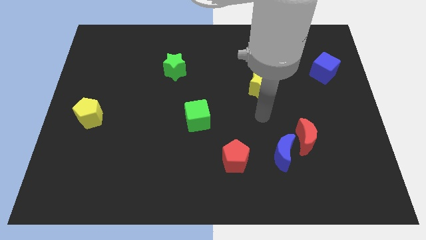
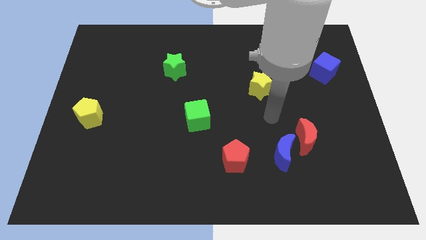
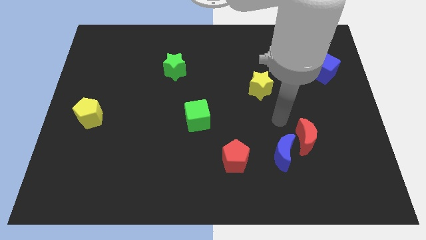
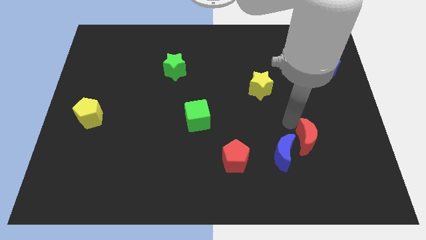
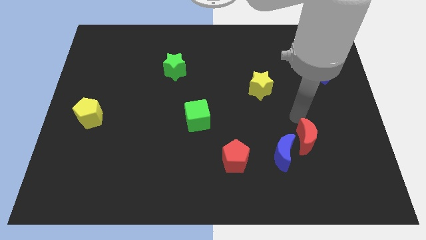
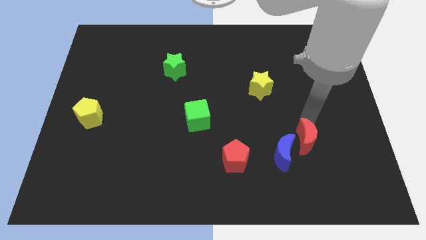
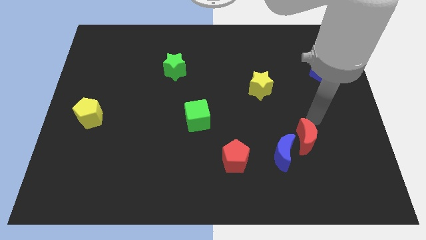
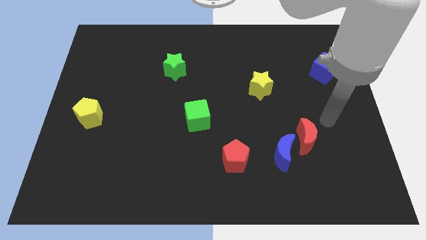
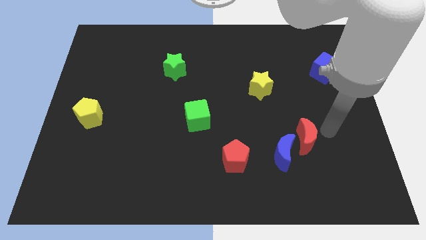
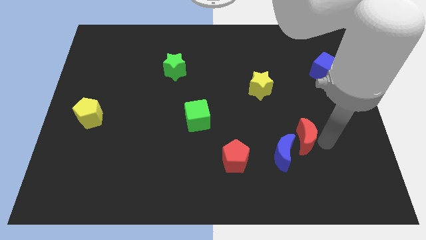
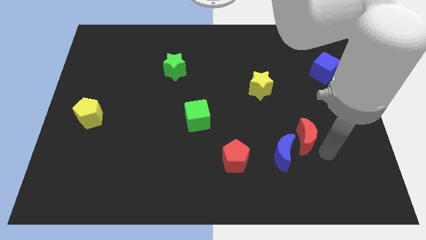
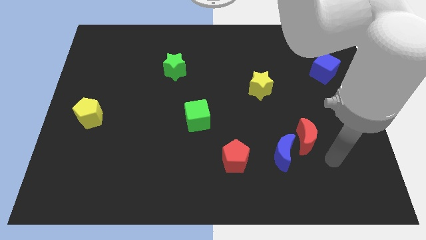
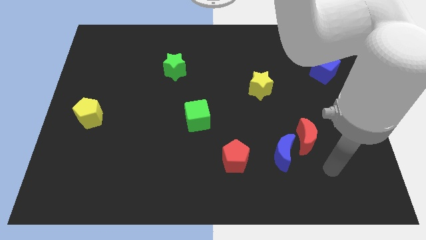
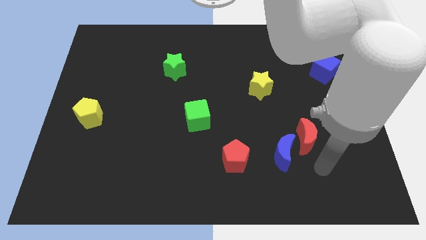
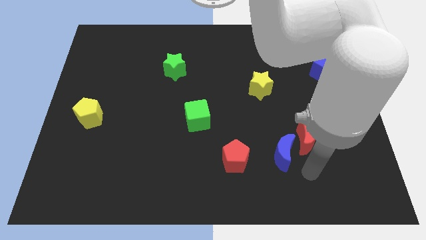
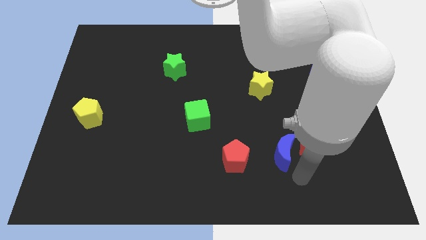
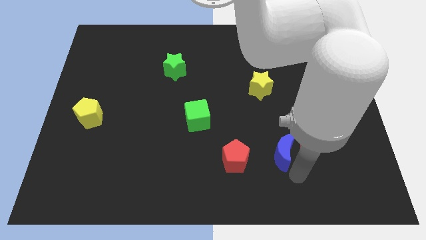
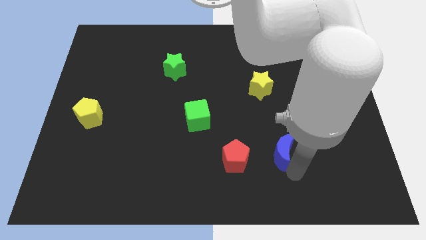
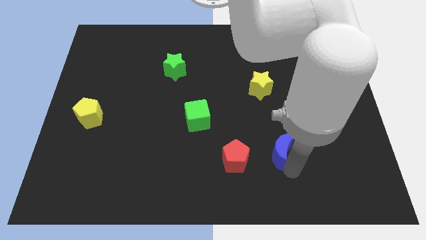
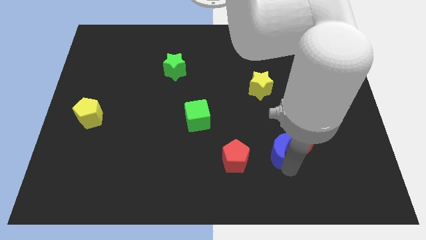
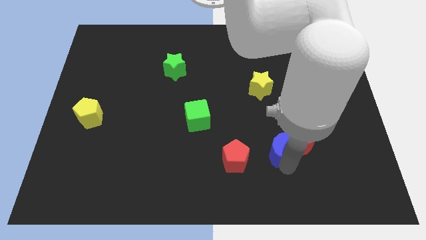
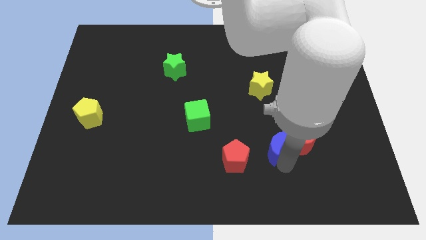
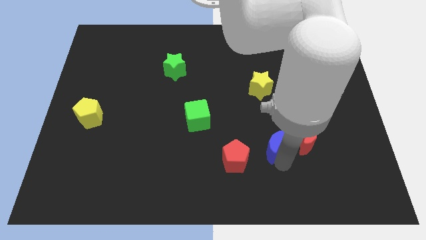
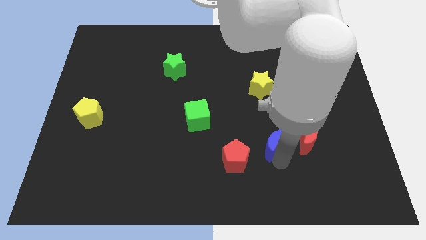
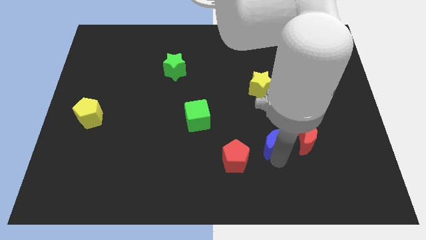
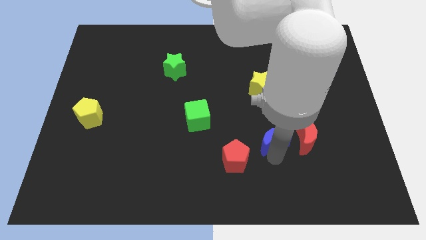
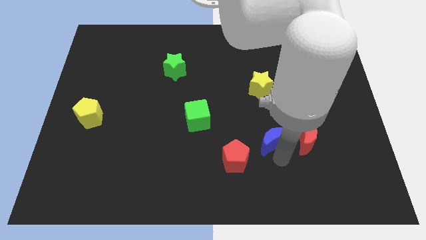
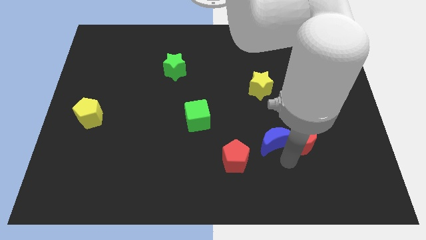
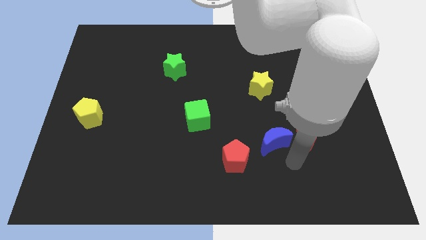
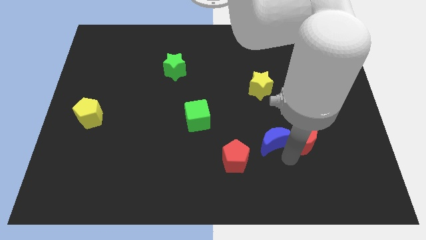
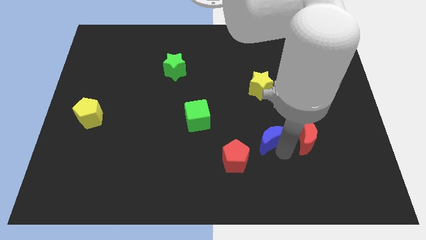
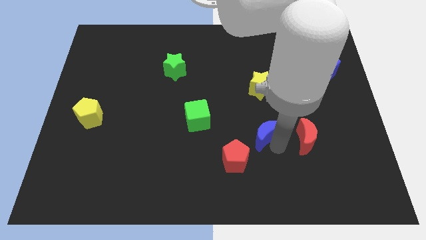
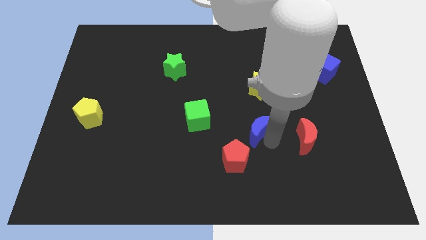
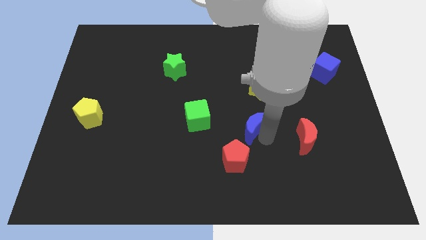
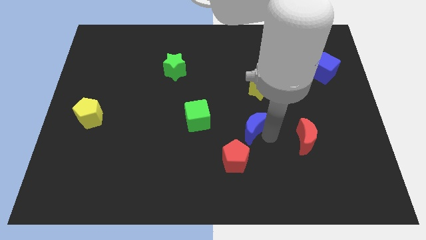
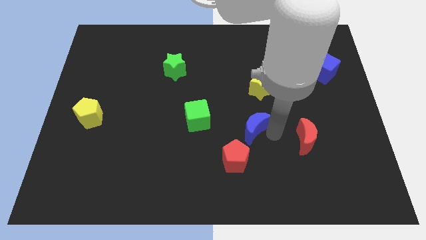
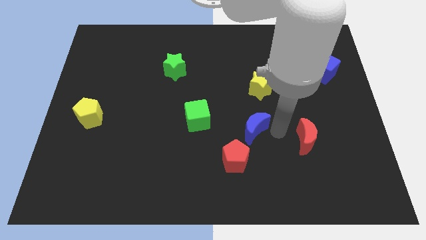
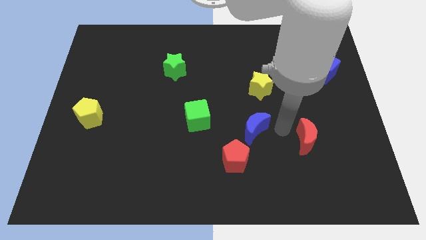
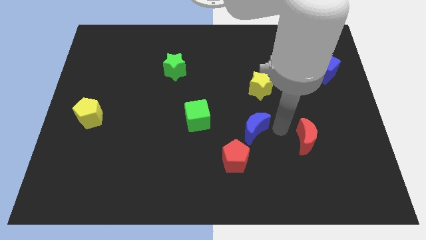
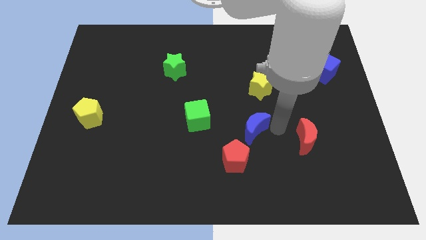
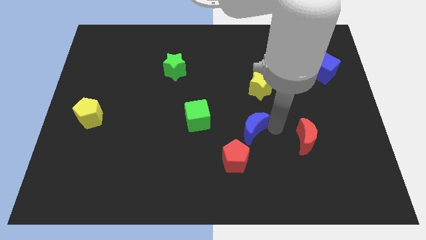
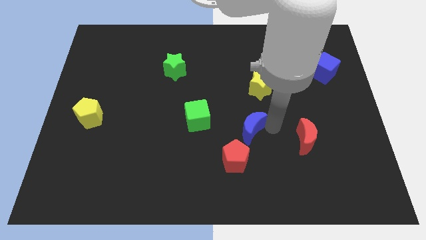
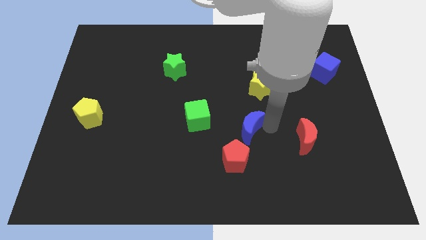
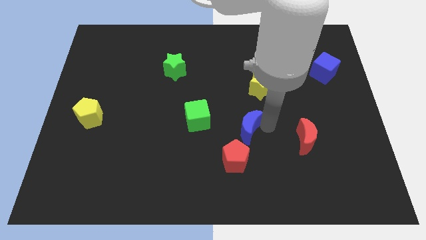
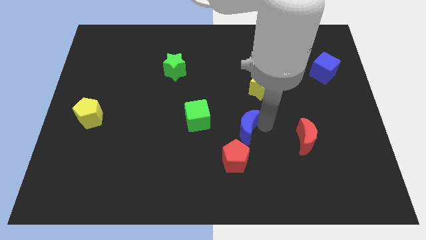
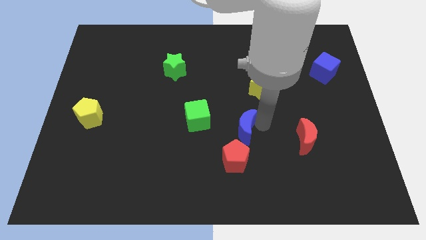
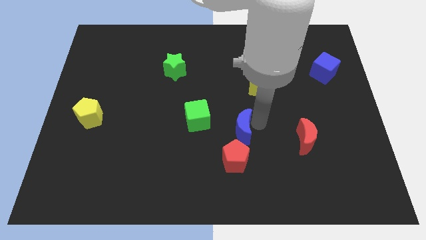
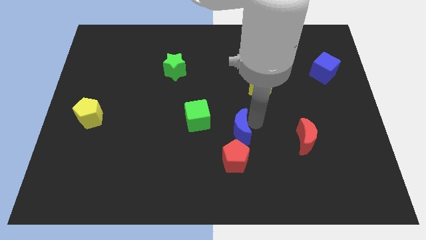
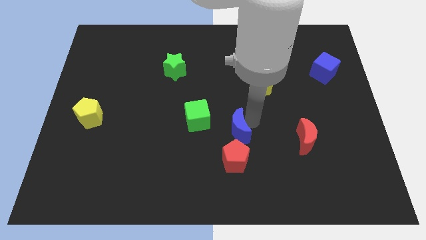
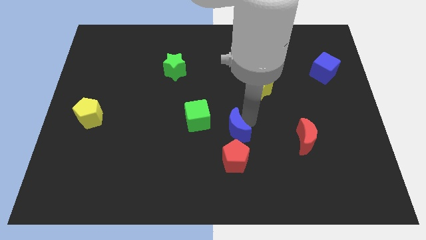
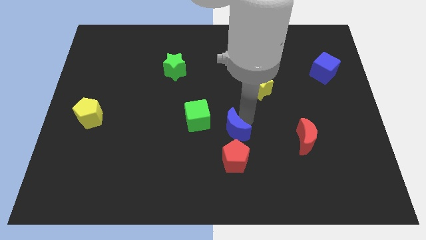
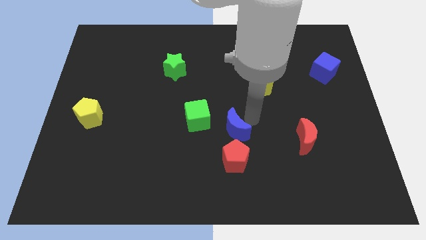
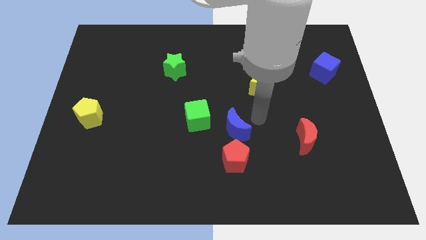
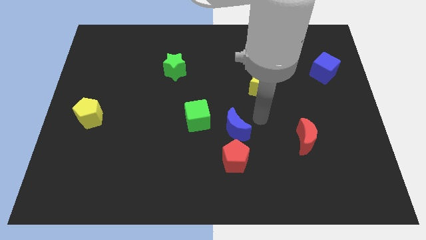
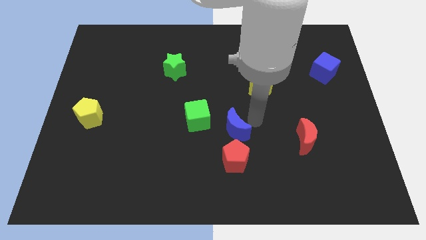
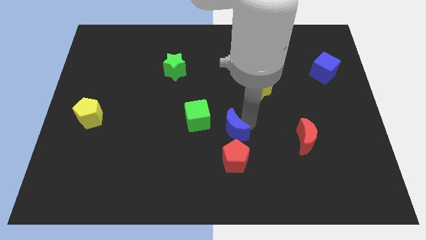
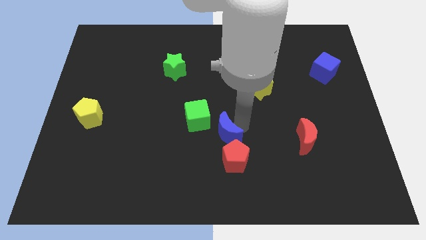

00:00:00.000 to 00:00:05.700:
push the blue moon to the top left side of the red pentagon

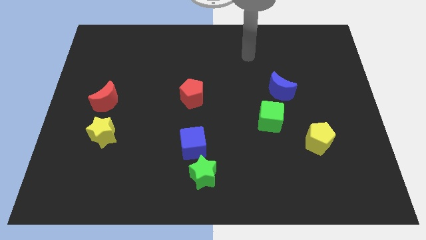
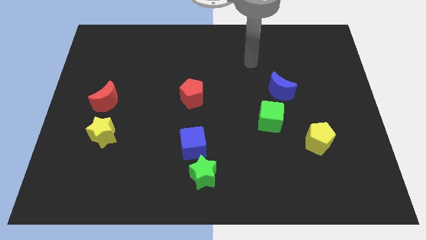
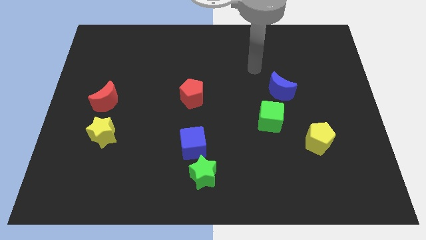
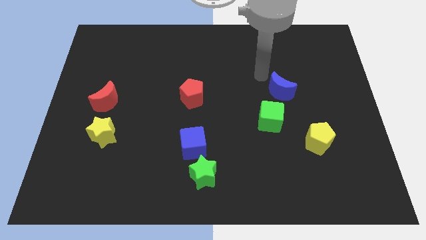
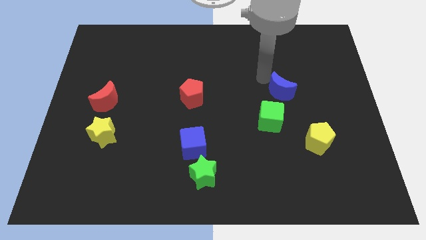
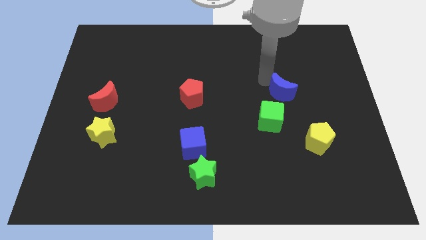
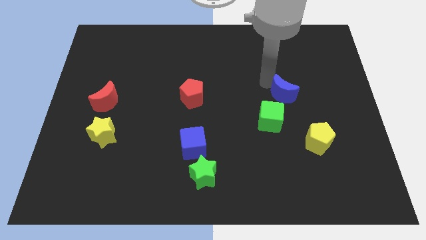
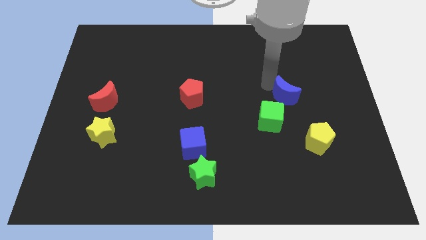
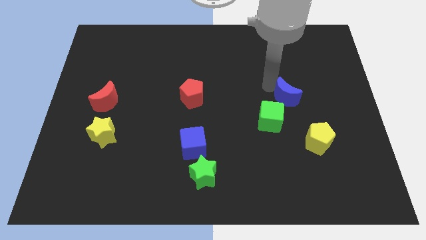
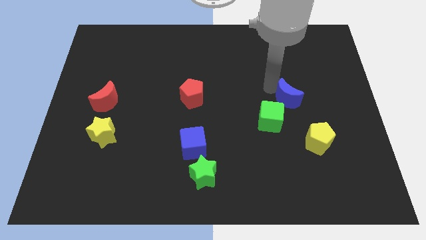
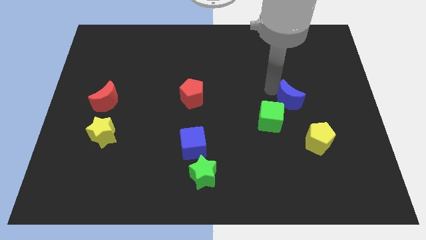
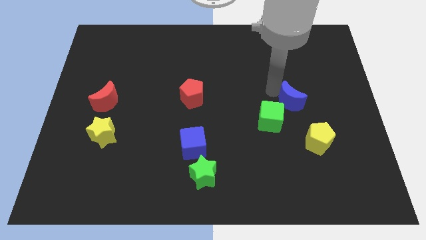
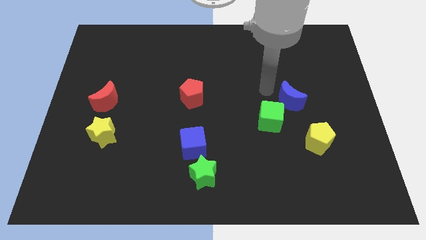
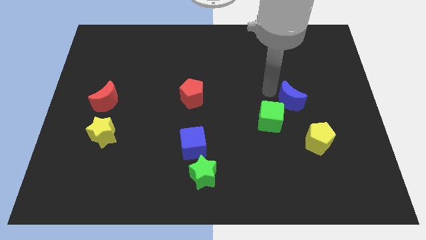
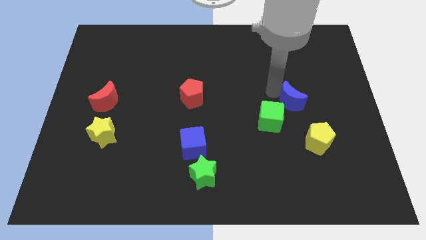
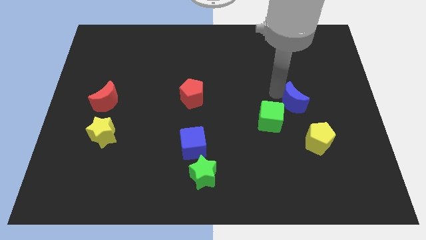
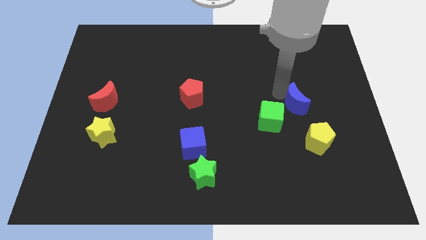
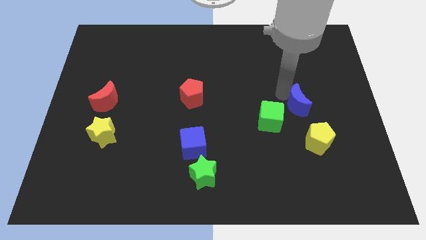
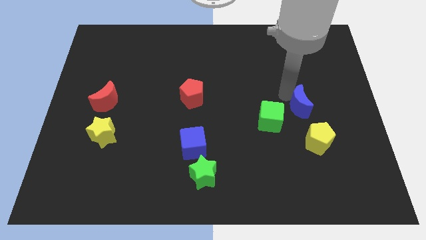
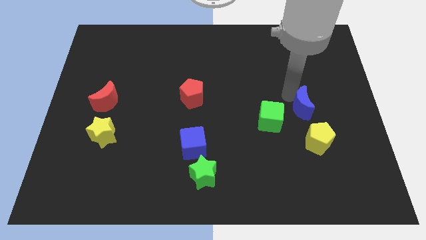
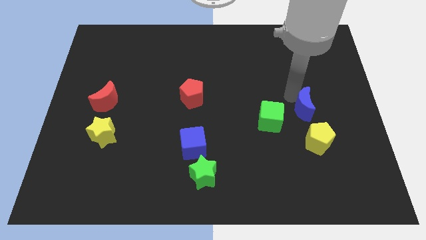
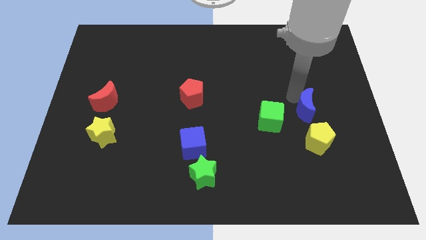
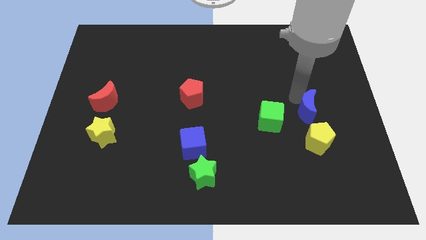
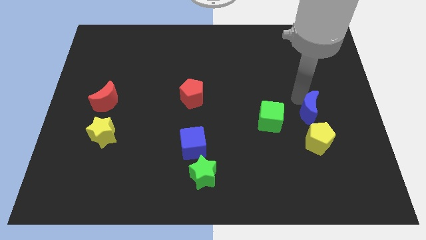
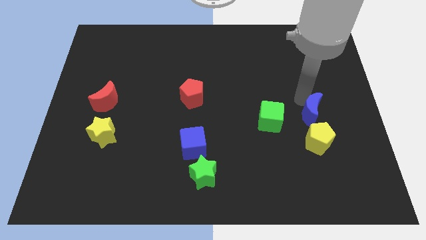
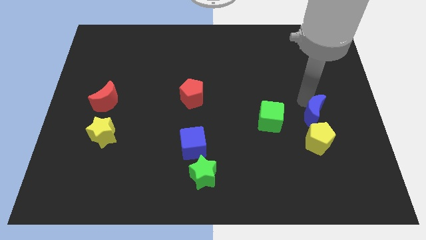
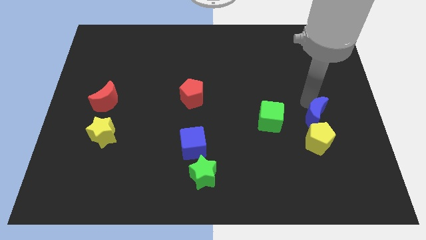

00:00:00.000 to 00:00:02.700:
move the blue moon to the top right side of the yellow pentagon
